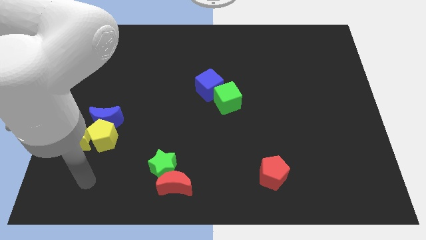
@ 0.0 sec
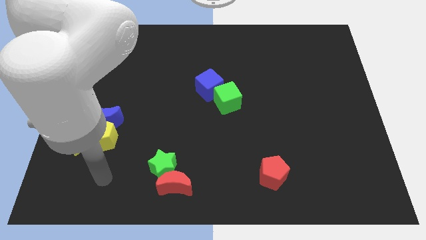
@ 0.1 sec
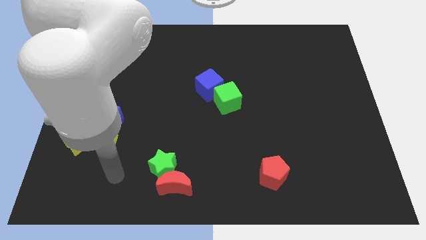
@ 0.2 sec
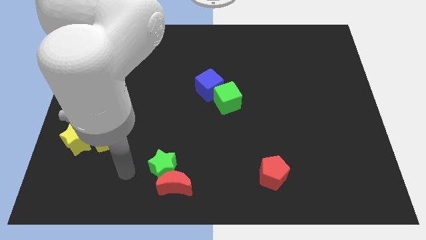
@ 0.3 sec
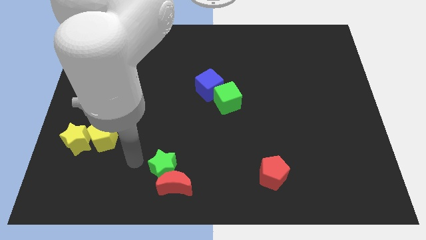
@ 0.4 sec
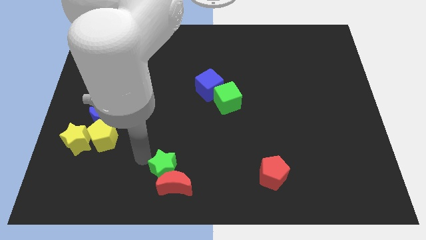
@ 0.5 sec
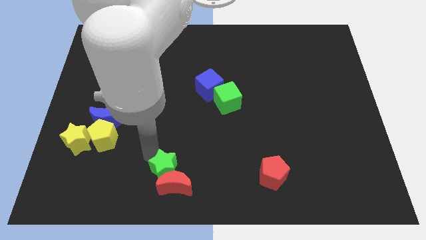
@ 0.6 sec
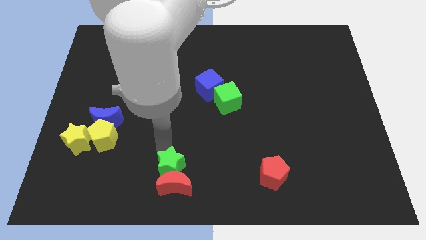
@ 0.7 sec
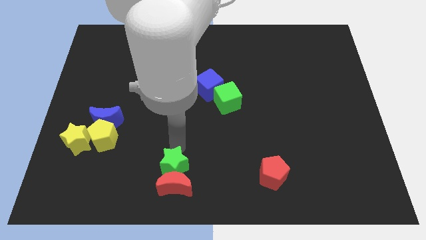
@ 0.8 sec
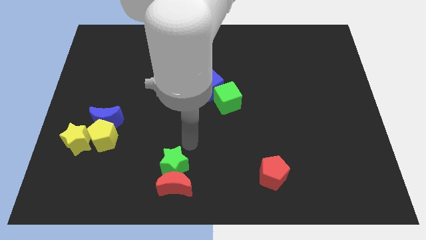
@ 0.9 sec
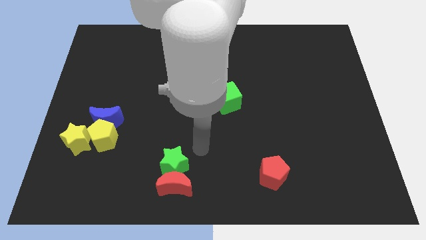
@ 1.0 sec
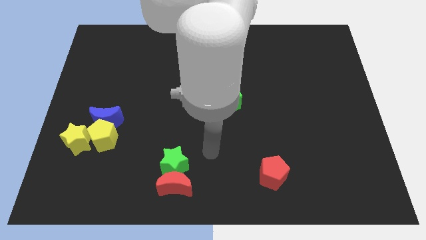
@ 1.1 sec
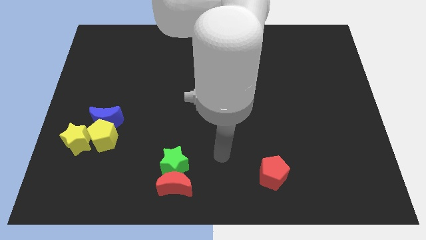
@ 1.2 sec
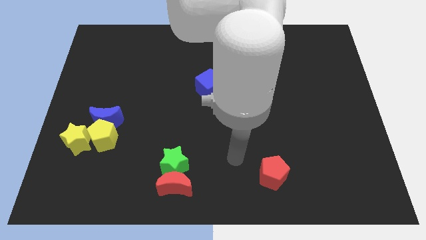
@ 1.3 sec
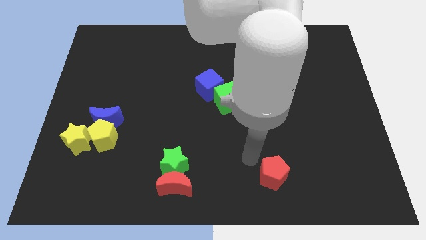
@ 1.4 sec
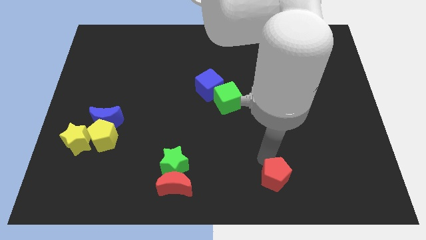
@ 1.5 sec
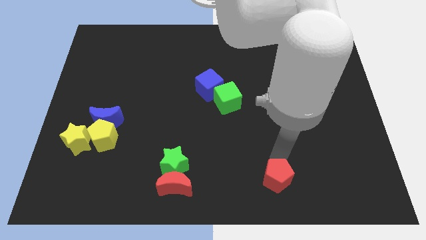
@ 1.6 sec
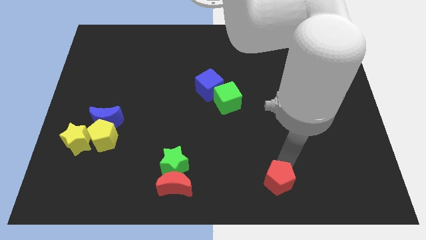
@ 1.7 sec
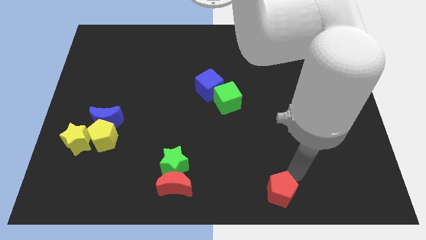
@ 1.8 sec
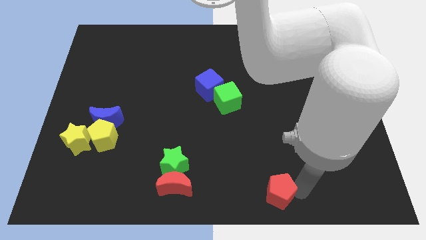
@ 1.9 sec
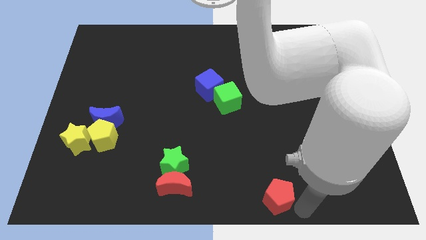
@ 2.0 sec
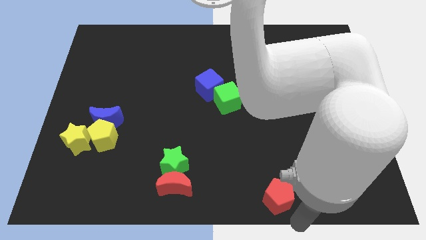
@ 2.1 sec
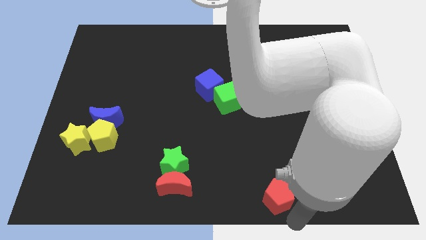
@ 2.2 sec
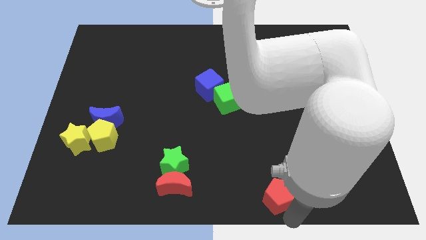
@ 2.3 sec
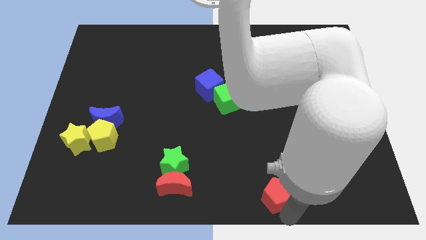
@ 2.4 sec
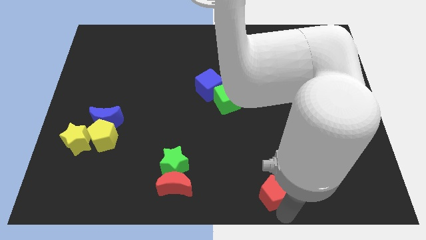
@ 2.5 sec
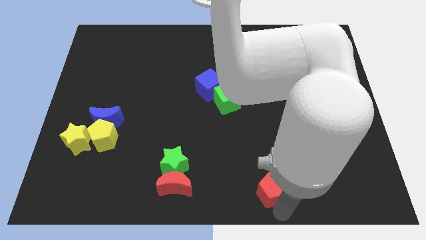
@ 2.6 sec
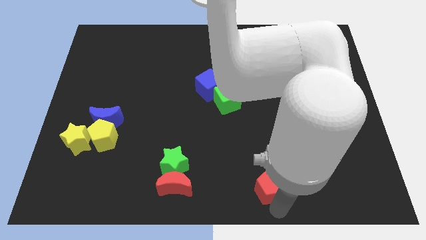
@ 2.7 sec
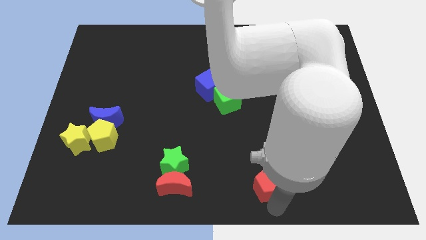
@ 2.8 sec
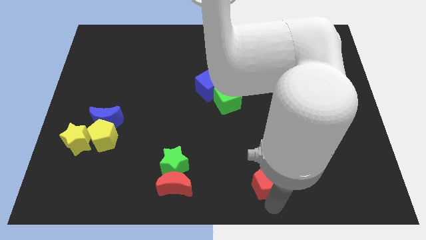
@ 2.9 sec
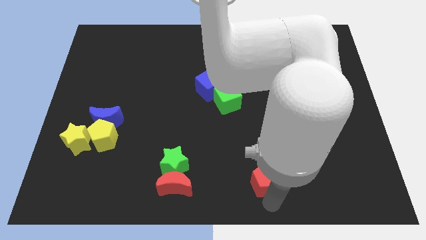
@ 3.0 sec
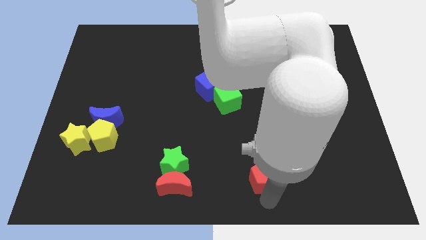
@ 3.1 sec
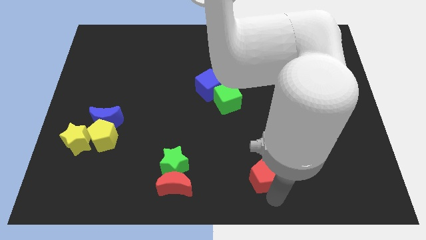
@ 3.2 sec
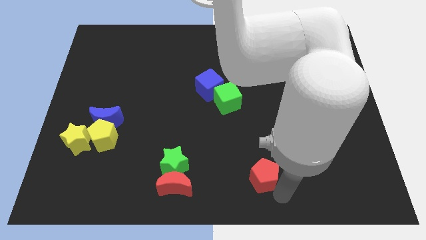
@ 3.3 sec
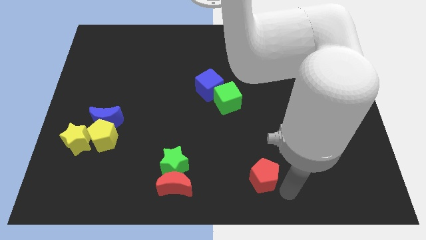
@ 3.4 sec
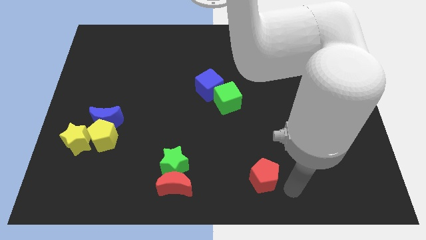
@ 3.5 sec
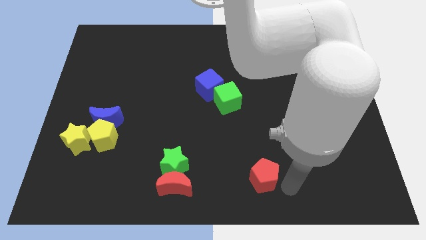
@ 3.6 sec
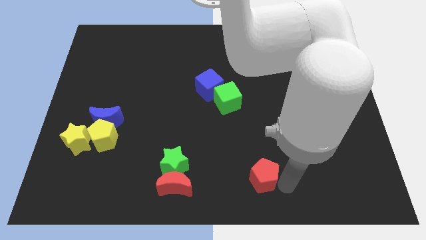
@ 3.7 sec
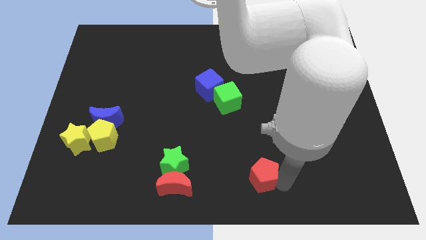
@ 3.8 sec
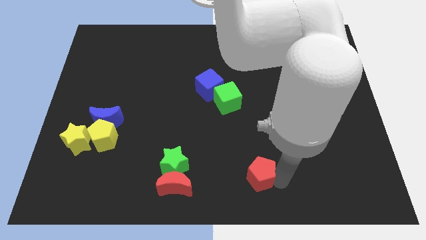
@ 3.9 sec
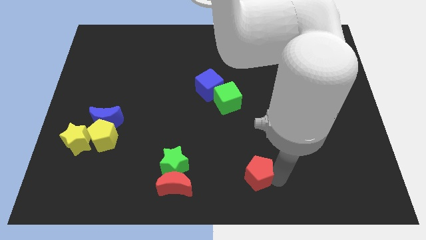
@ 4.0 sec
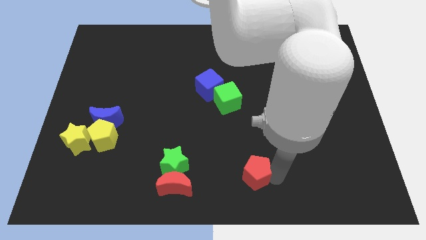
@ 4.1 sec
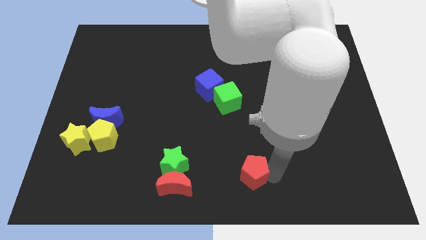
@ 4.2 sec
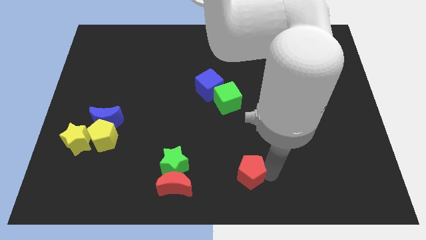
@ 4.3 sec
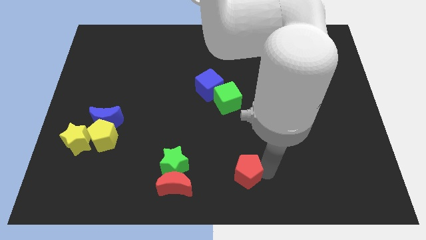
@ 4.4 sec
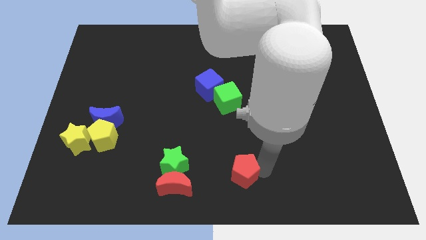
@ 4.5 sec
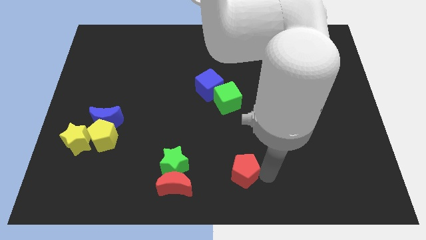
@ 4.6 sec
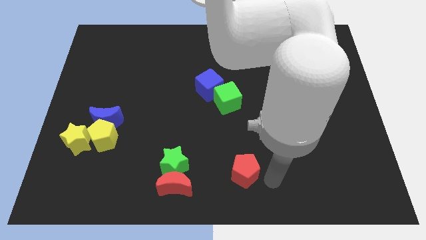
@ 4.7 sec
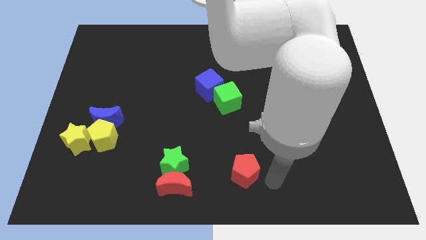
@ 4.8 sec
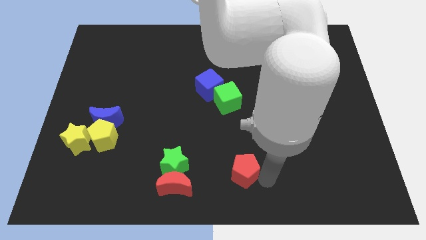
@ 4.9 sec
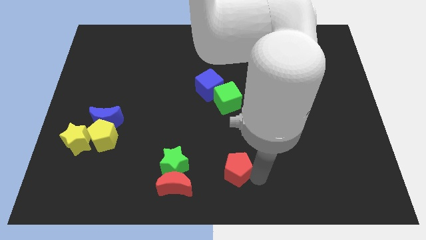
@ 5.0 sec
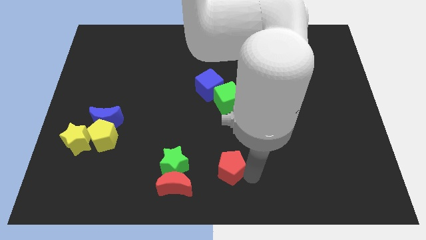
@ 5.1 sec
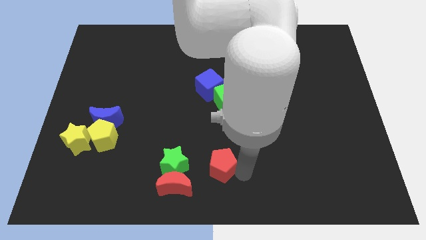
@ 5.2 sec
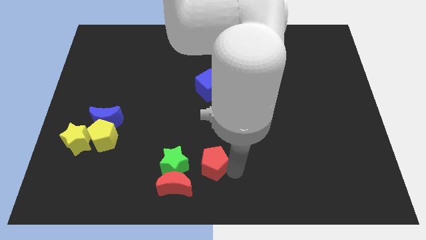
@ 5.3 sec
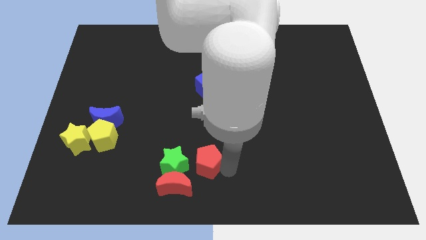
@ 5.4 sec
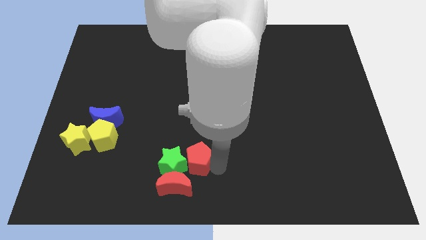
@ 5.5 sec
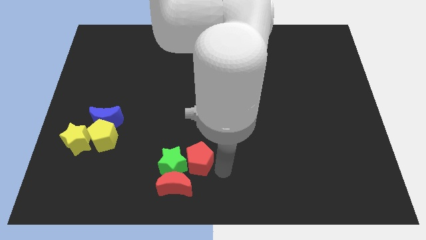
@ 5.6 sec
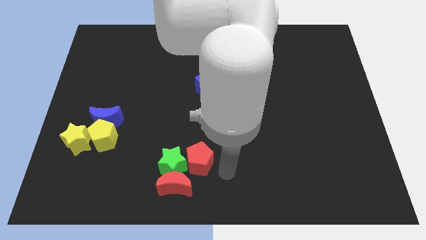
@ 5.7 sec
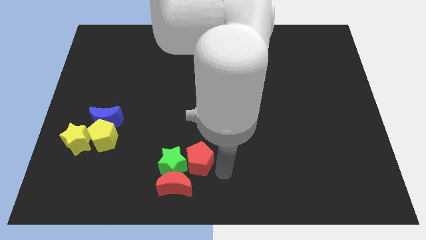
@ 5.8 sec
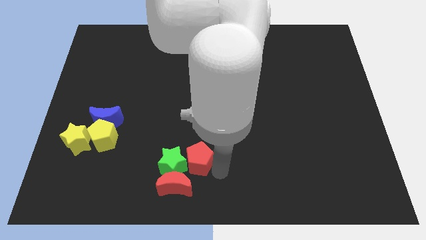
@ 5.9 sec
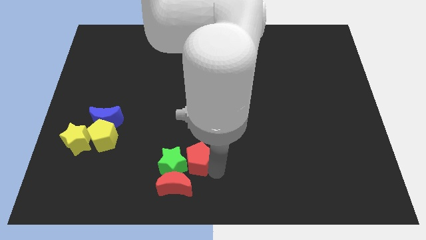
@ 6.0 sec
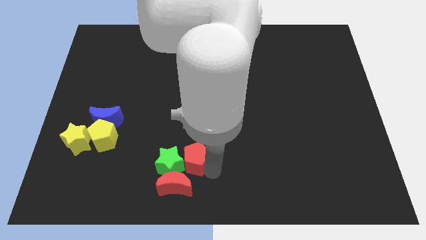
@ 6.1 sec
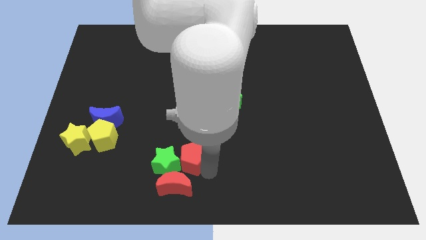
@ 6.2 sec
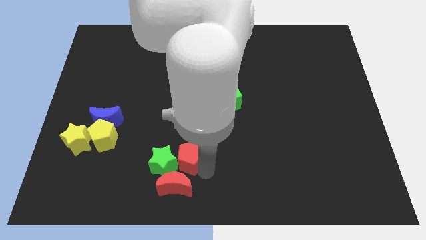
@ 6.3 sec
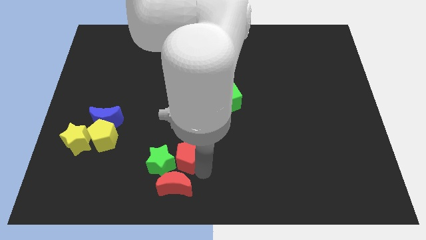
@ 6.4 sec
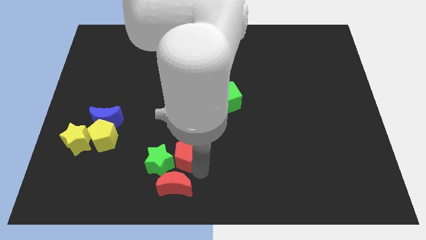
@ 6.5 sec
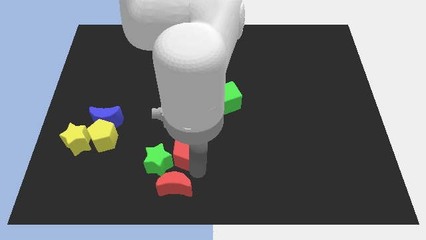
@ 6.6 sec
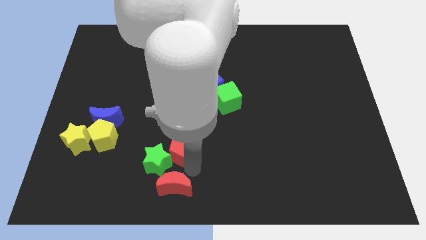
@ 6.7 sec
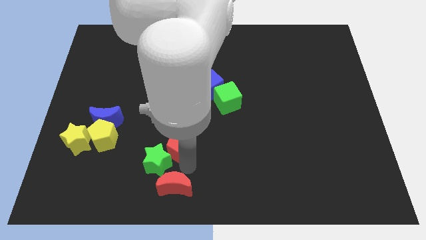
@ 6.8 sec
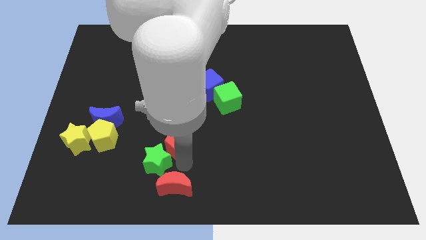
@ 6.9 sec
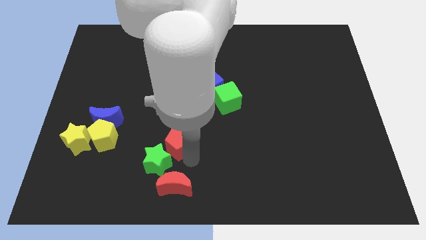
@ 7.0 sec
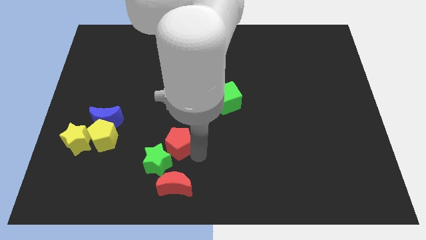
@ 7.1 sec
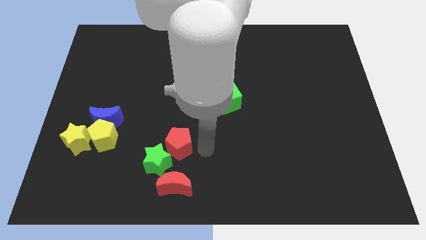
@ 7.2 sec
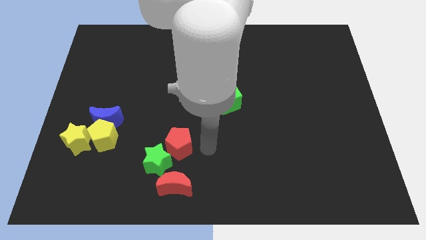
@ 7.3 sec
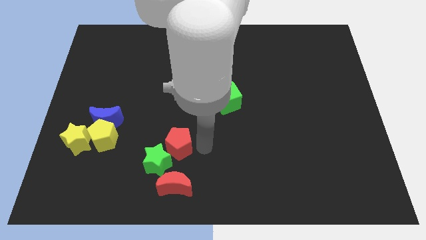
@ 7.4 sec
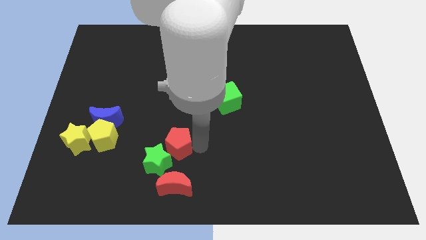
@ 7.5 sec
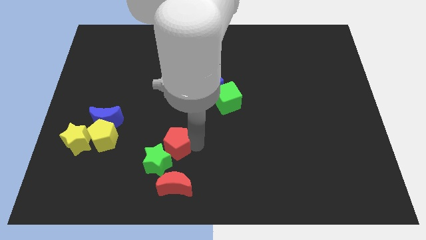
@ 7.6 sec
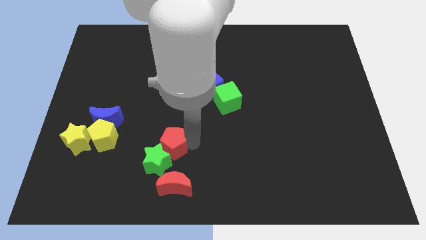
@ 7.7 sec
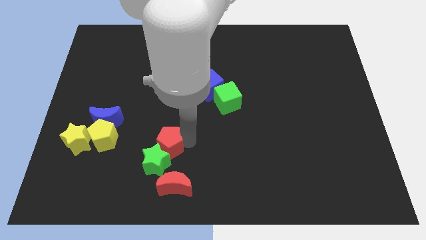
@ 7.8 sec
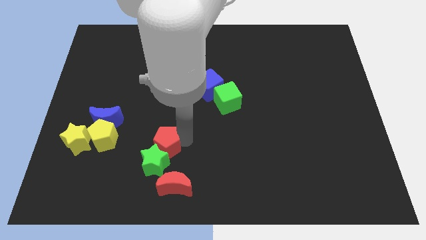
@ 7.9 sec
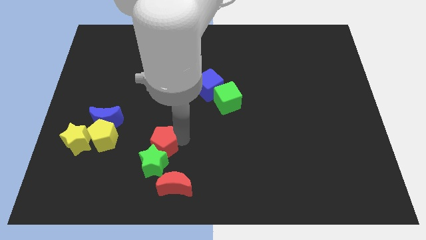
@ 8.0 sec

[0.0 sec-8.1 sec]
put the red pentagon to the top left side of the green star

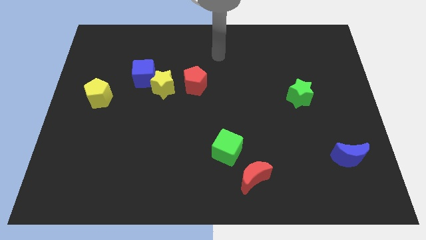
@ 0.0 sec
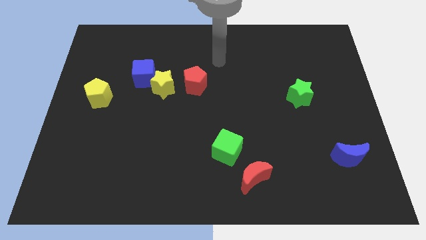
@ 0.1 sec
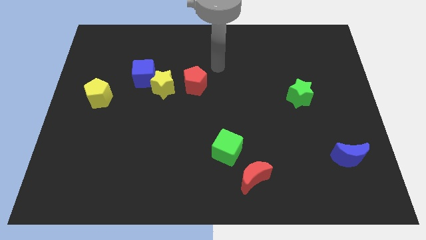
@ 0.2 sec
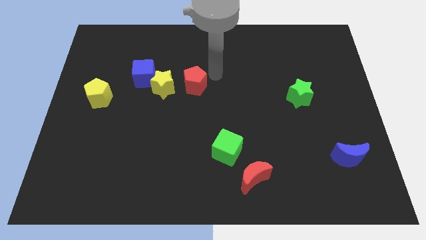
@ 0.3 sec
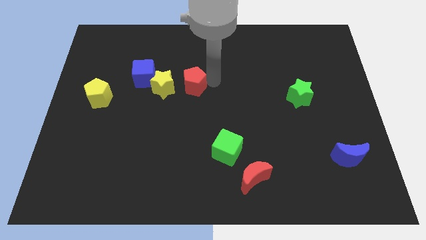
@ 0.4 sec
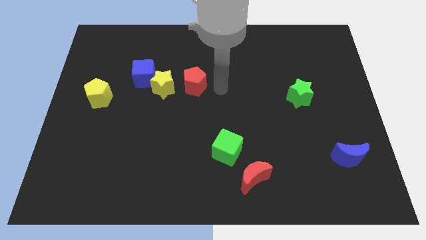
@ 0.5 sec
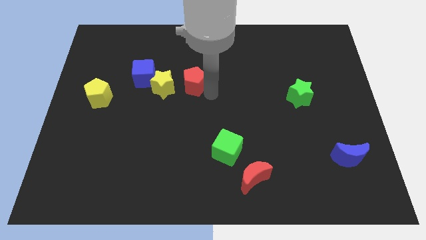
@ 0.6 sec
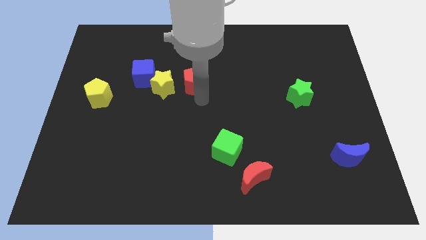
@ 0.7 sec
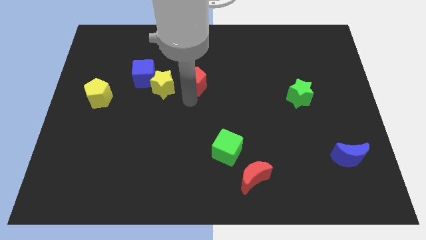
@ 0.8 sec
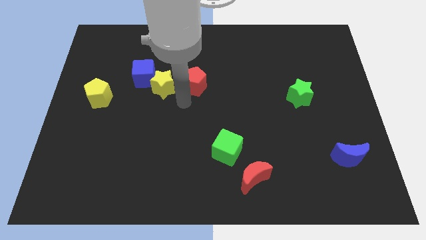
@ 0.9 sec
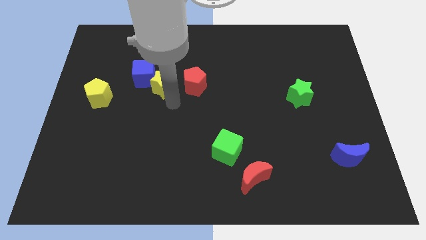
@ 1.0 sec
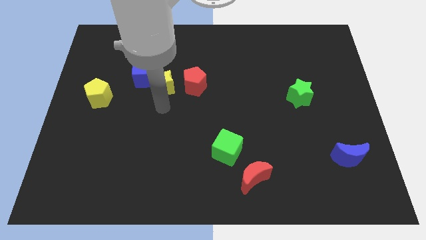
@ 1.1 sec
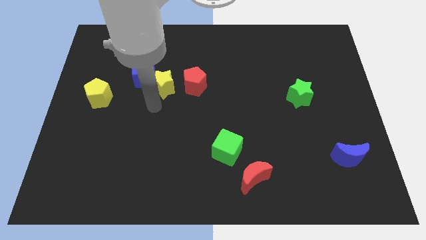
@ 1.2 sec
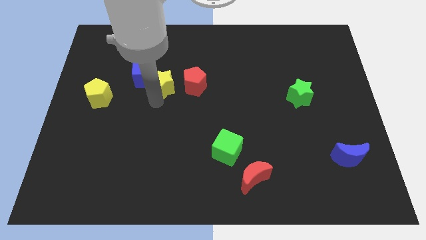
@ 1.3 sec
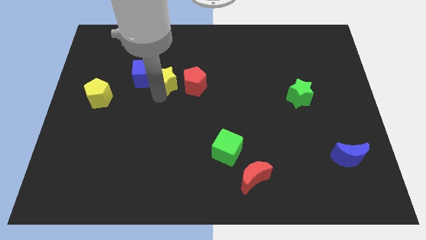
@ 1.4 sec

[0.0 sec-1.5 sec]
move the yellow star to the top left of the red pentagon
